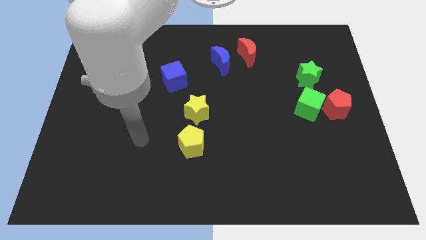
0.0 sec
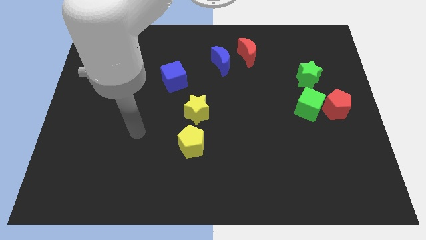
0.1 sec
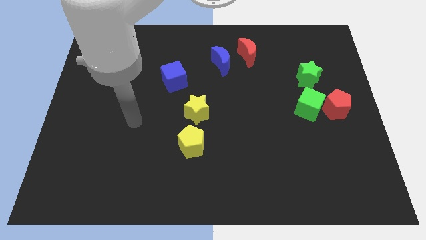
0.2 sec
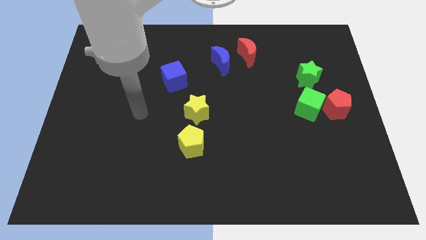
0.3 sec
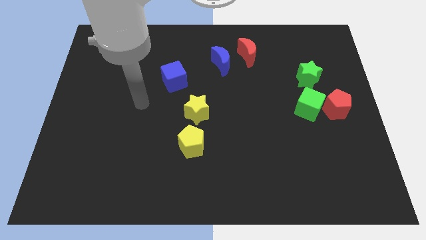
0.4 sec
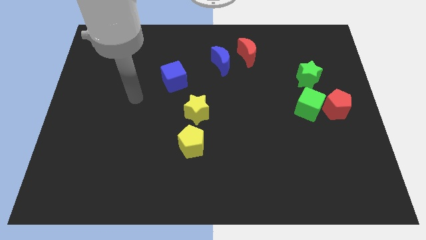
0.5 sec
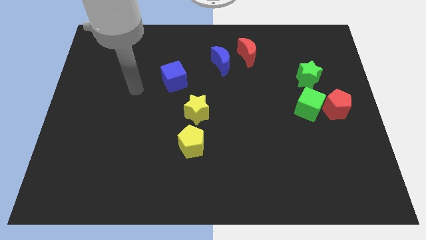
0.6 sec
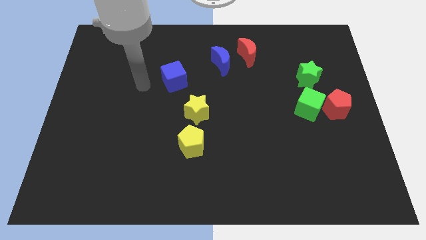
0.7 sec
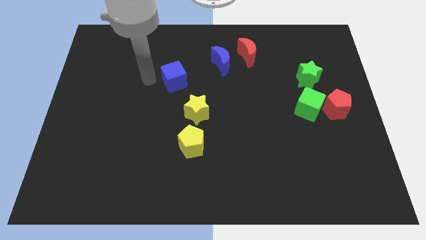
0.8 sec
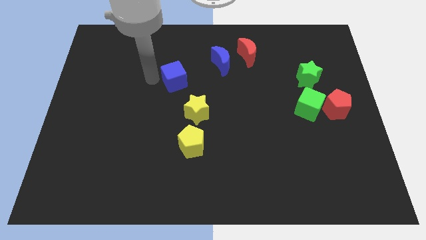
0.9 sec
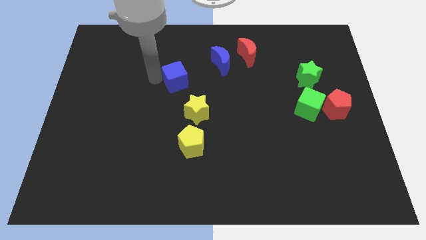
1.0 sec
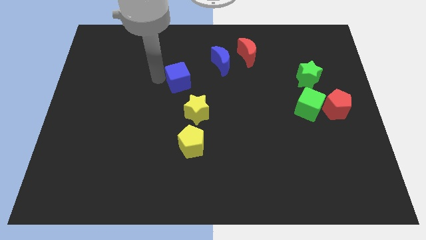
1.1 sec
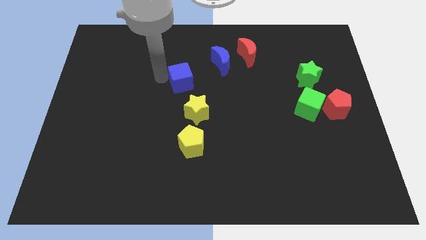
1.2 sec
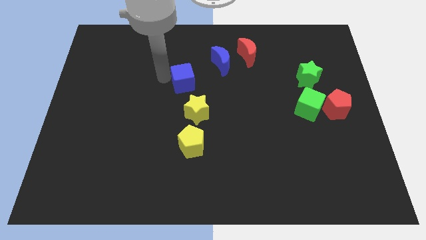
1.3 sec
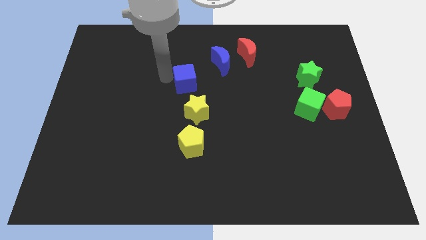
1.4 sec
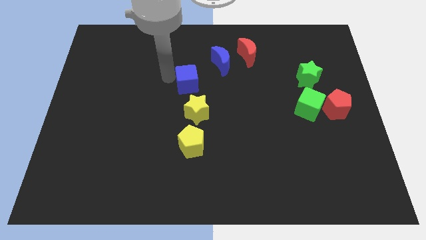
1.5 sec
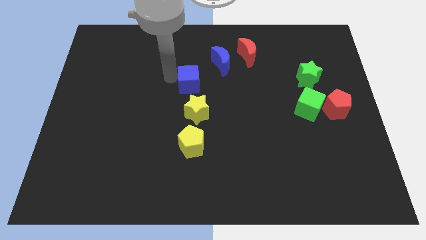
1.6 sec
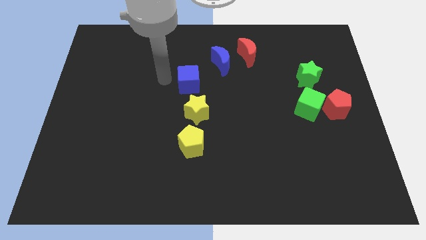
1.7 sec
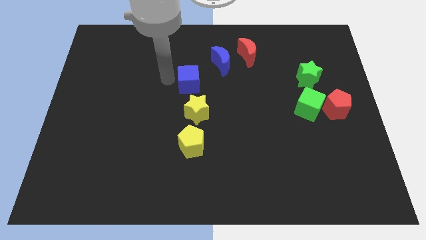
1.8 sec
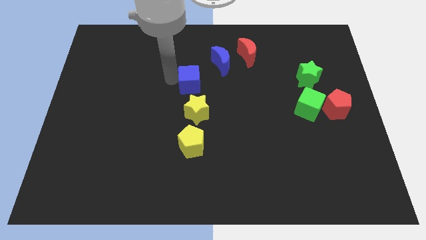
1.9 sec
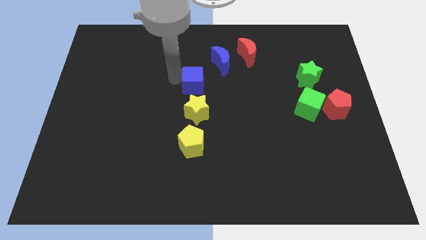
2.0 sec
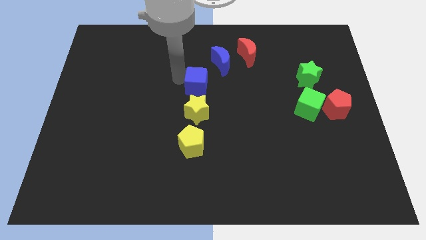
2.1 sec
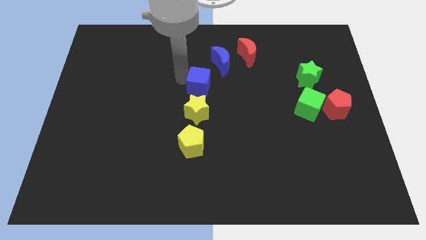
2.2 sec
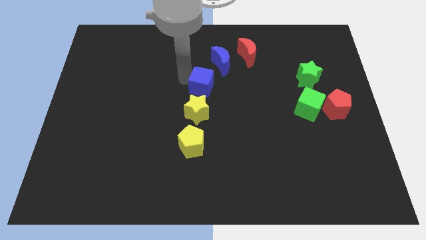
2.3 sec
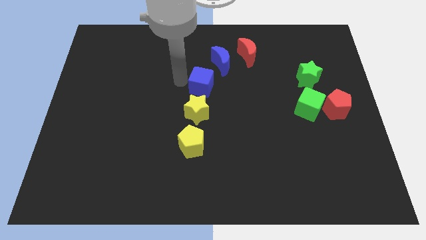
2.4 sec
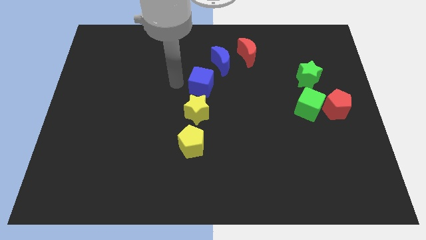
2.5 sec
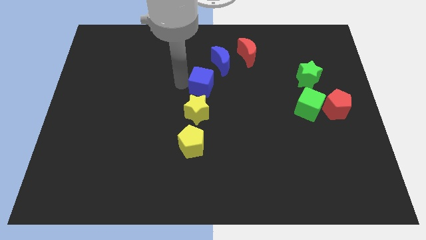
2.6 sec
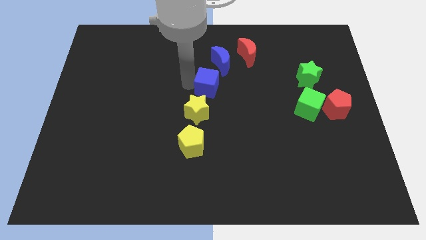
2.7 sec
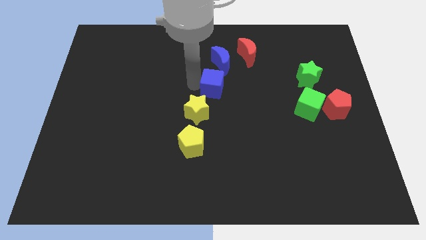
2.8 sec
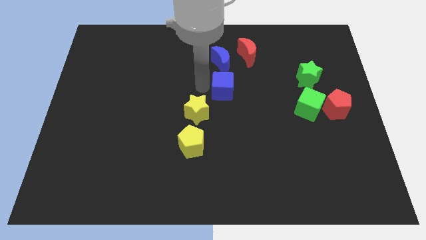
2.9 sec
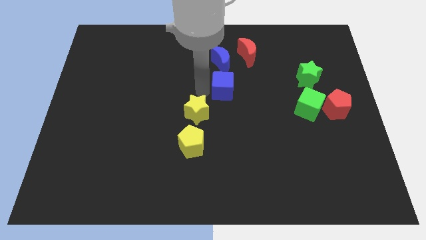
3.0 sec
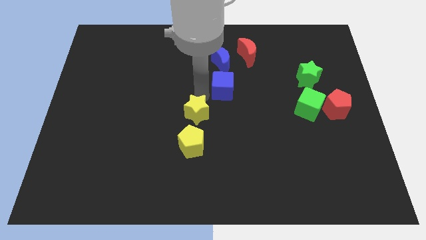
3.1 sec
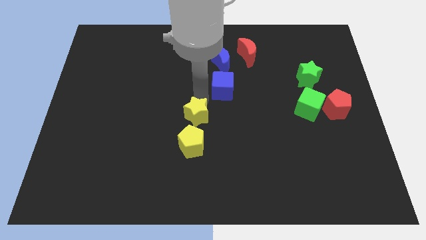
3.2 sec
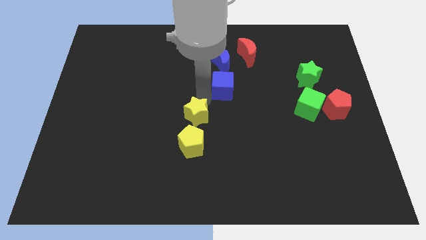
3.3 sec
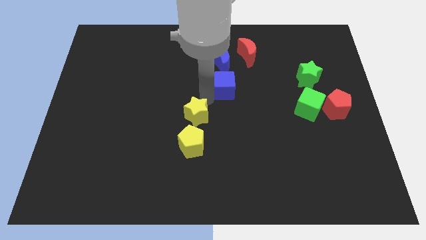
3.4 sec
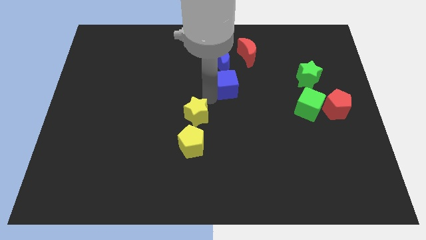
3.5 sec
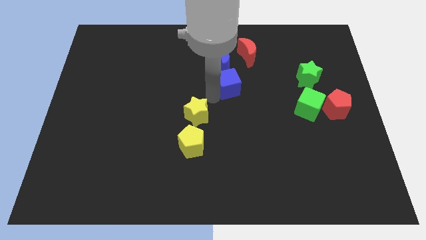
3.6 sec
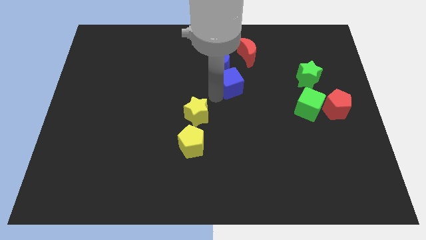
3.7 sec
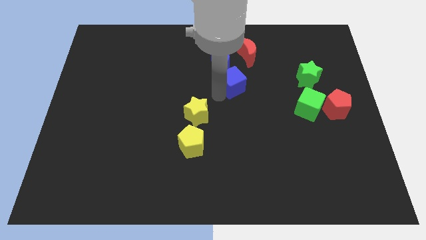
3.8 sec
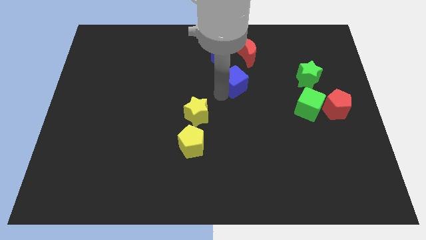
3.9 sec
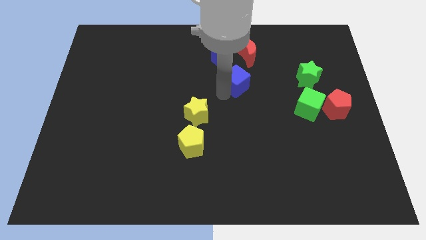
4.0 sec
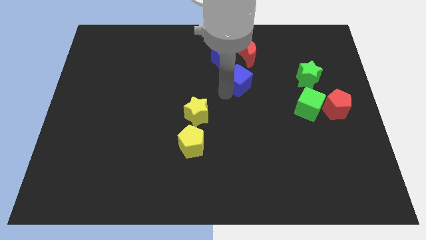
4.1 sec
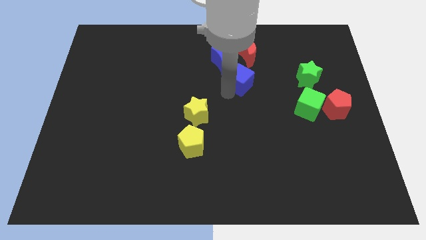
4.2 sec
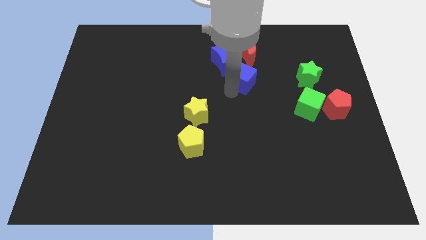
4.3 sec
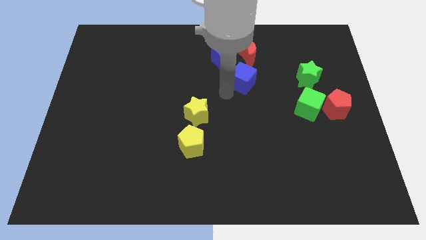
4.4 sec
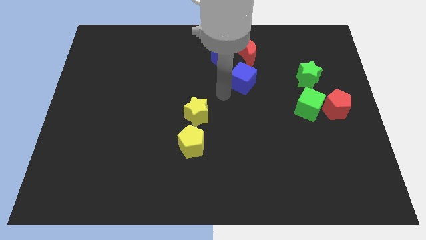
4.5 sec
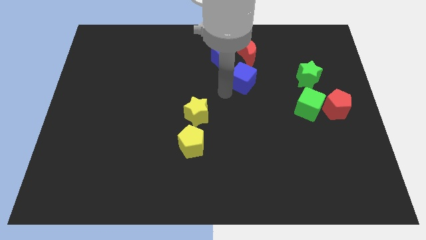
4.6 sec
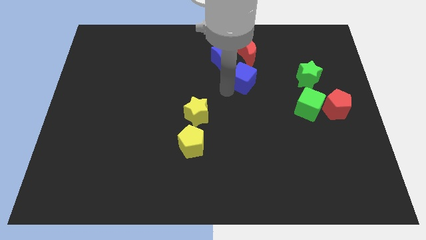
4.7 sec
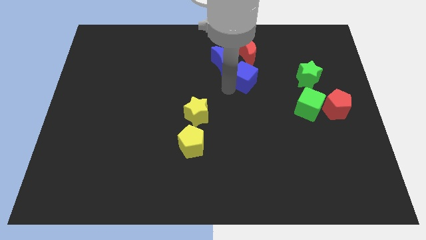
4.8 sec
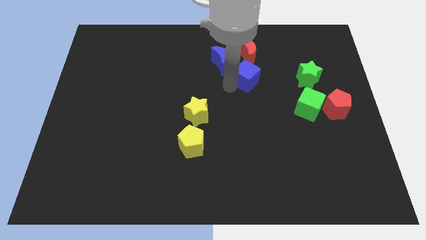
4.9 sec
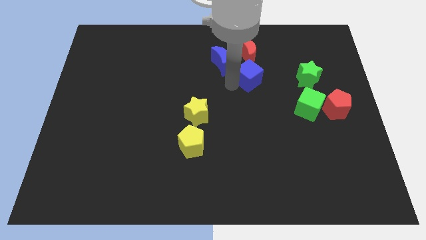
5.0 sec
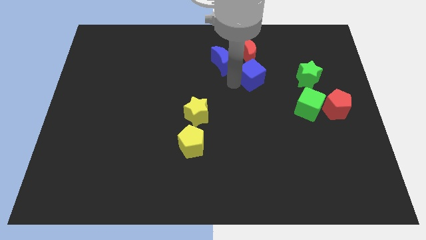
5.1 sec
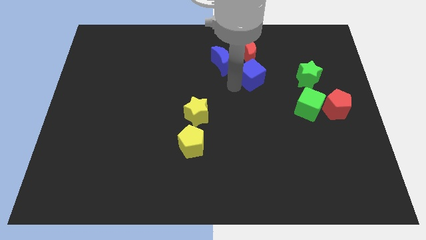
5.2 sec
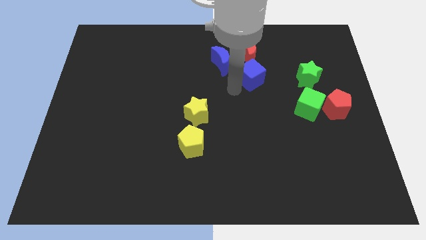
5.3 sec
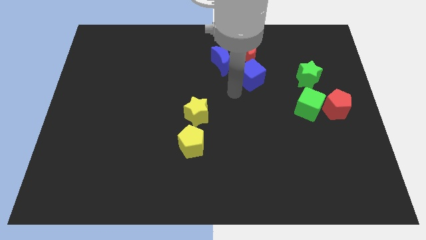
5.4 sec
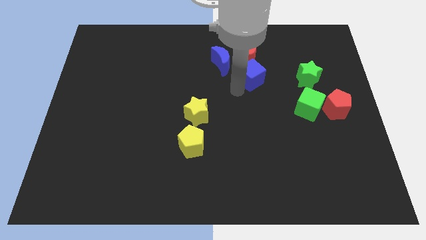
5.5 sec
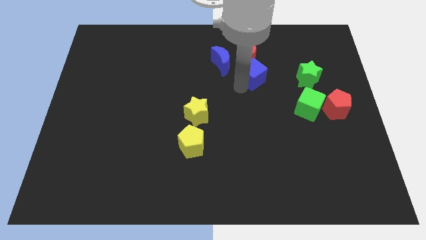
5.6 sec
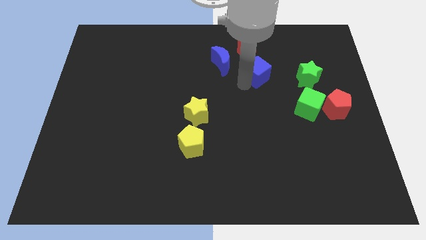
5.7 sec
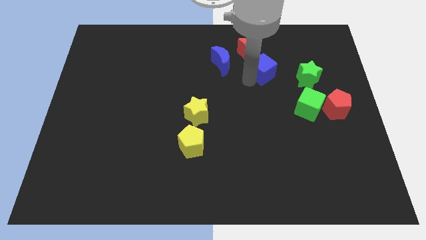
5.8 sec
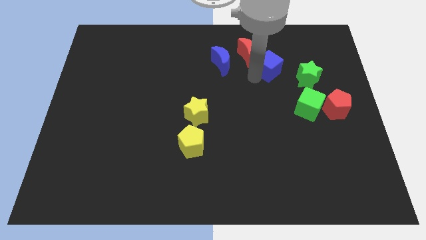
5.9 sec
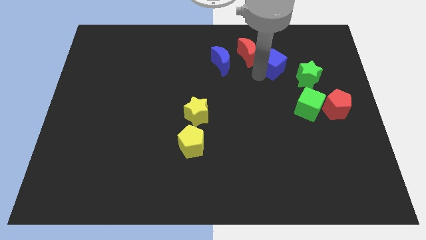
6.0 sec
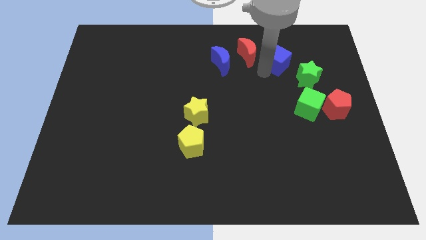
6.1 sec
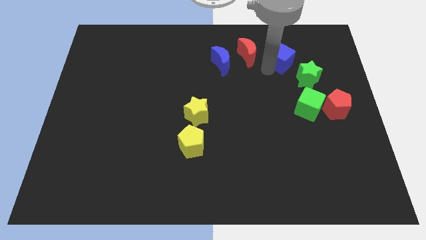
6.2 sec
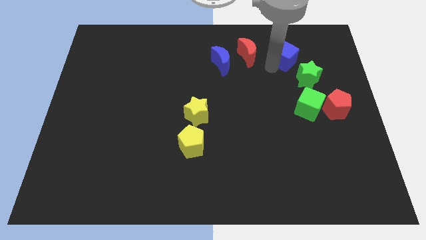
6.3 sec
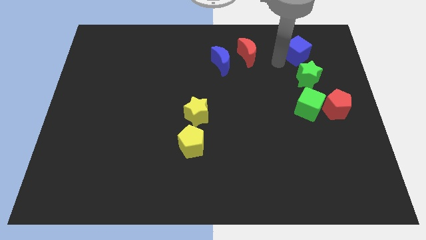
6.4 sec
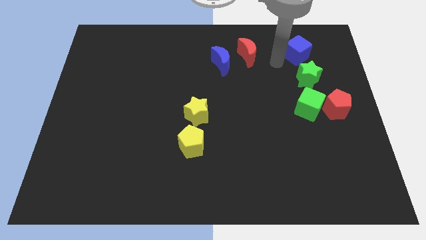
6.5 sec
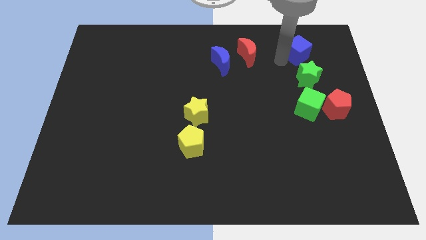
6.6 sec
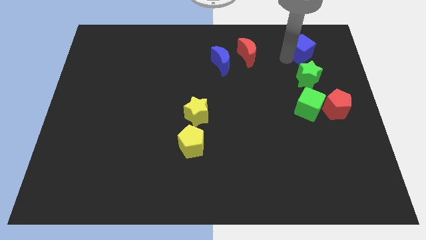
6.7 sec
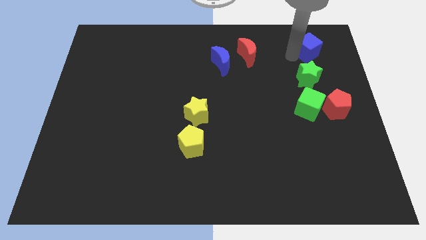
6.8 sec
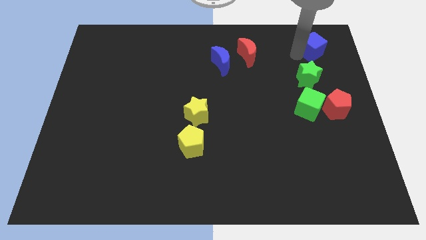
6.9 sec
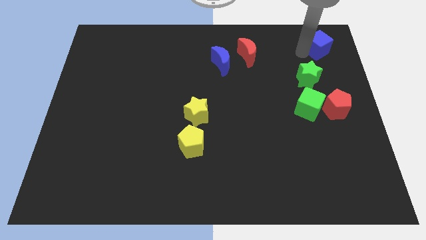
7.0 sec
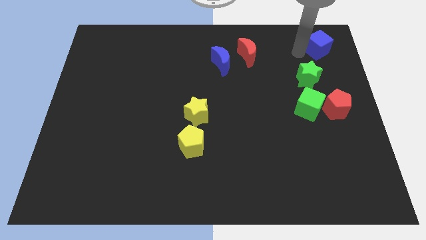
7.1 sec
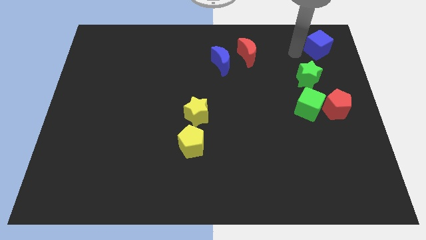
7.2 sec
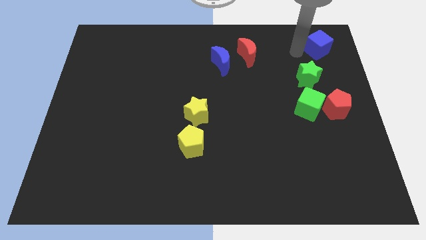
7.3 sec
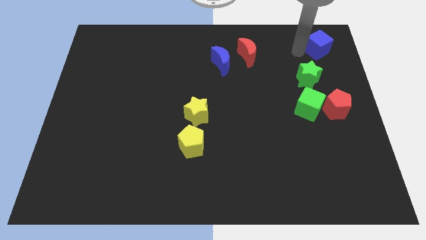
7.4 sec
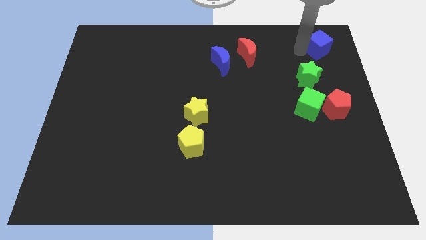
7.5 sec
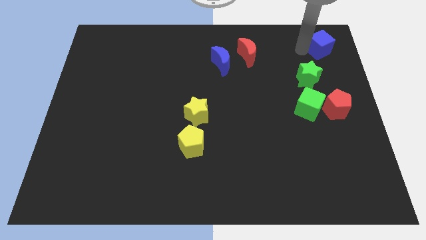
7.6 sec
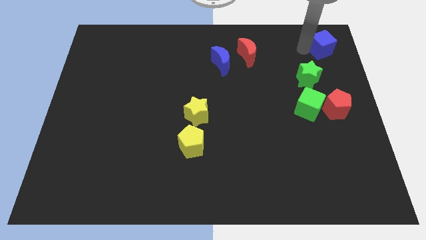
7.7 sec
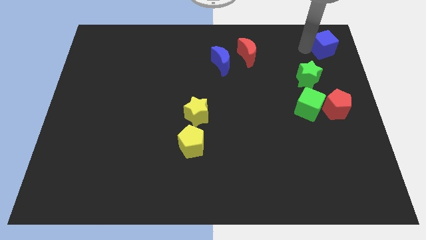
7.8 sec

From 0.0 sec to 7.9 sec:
slide the blue cube to the top right of the board
